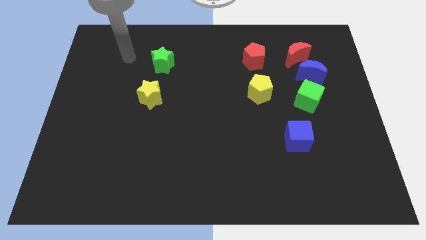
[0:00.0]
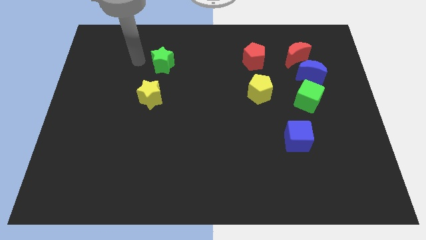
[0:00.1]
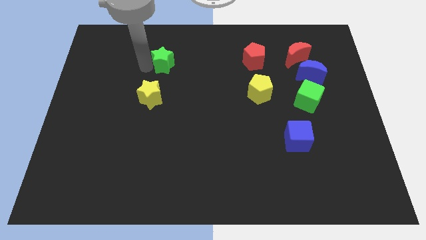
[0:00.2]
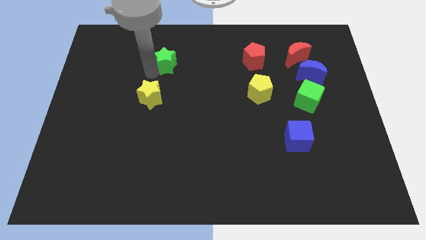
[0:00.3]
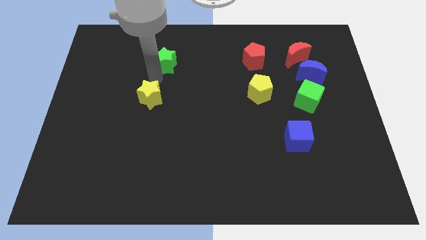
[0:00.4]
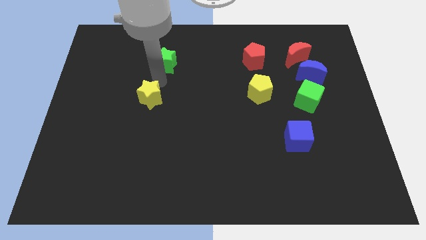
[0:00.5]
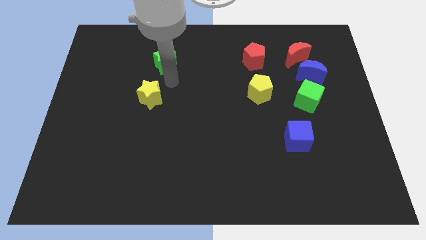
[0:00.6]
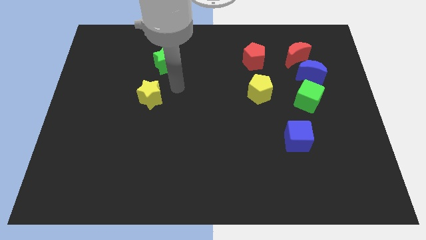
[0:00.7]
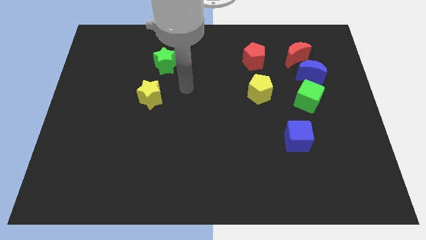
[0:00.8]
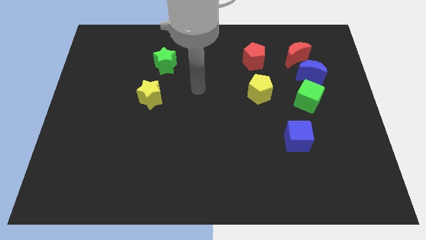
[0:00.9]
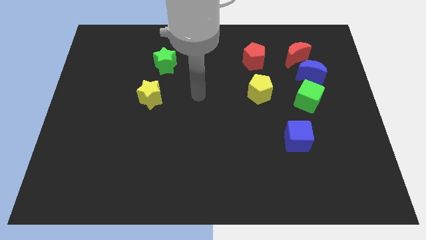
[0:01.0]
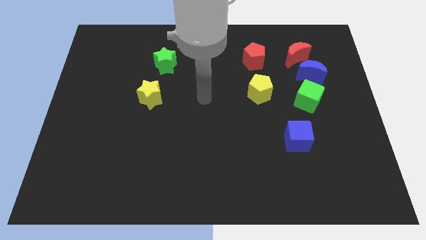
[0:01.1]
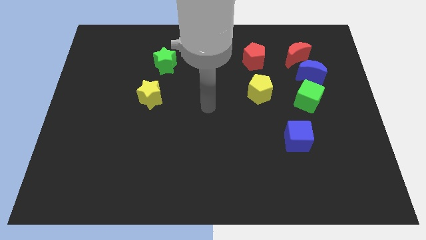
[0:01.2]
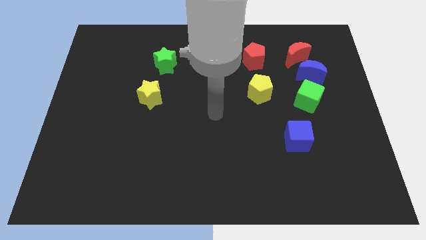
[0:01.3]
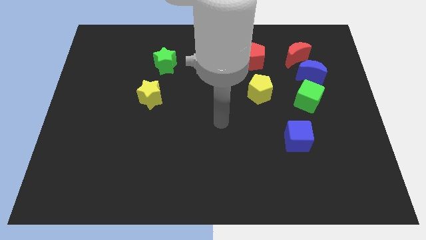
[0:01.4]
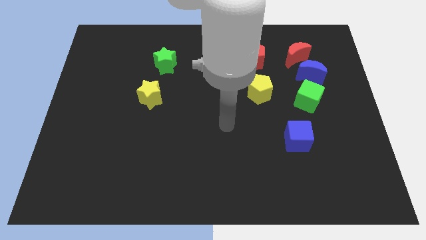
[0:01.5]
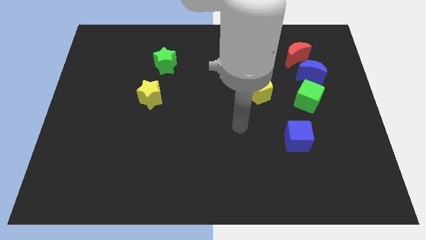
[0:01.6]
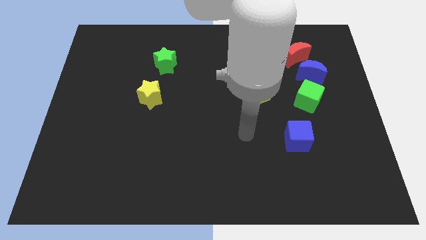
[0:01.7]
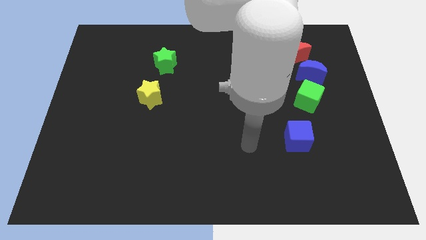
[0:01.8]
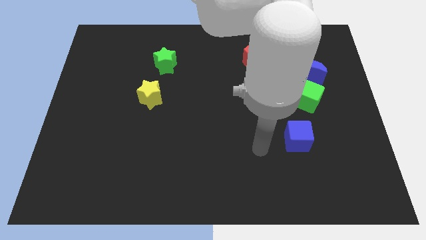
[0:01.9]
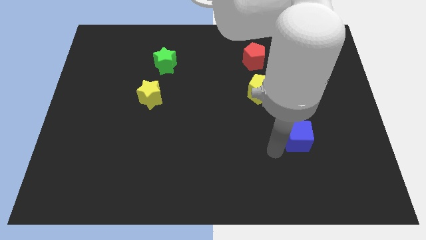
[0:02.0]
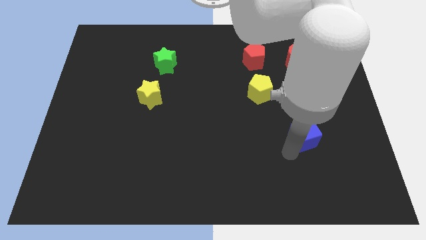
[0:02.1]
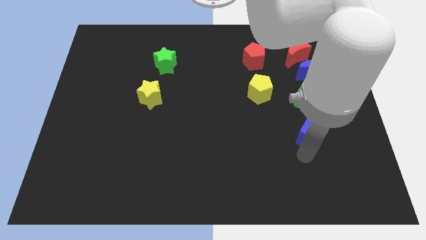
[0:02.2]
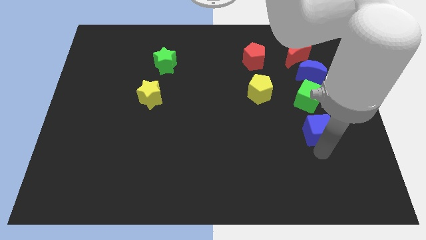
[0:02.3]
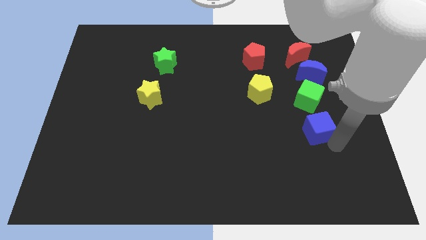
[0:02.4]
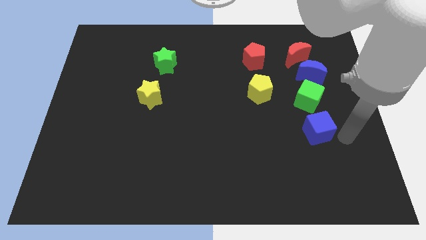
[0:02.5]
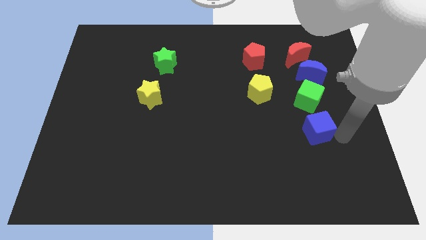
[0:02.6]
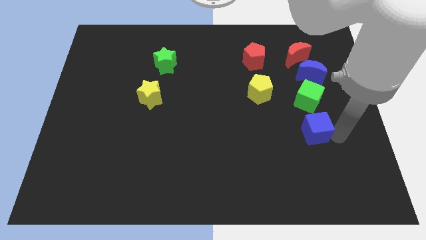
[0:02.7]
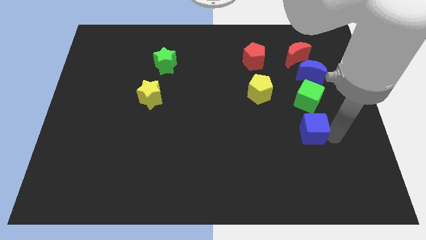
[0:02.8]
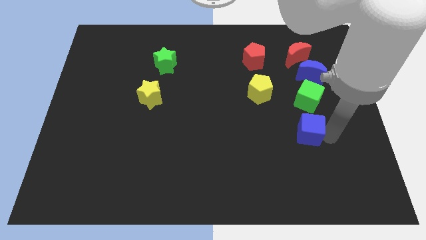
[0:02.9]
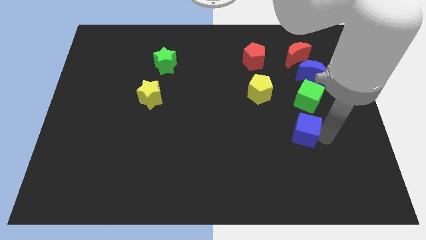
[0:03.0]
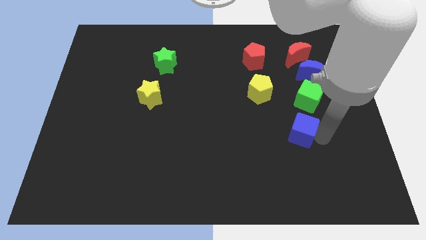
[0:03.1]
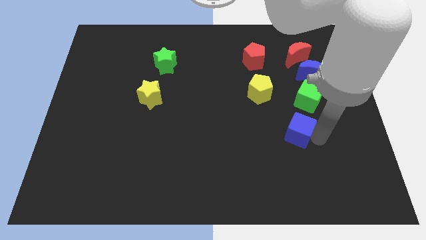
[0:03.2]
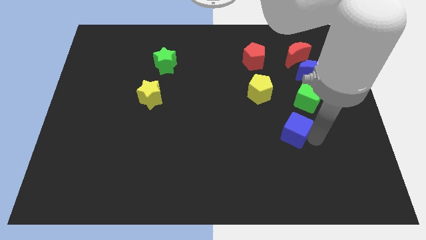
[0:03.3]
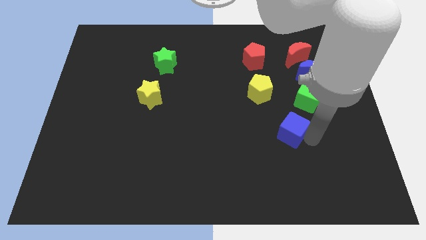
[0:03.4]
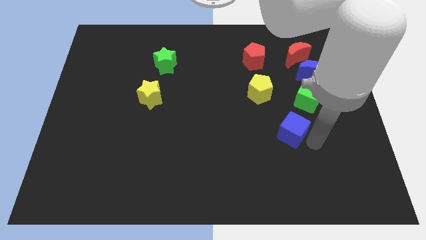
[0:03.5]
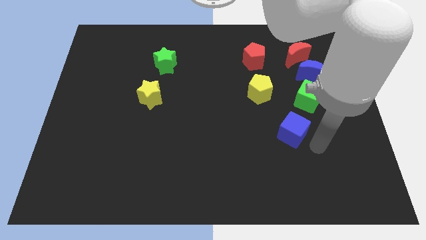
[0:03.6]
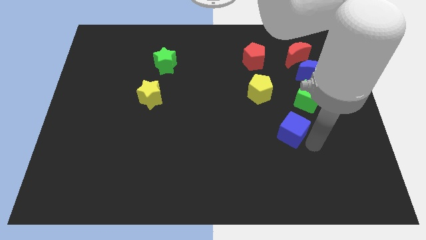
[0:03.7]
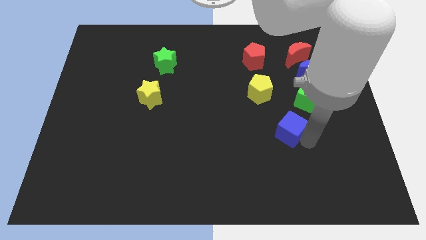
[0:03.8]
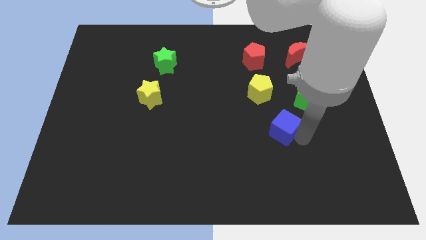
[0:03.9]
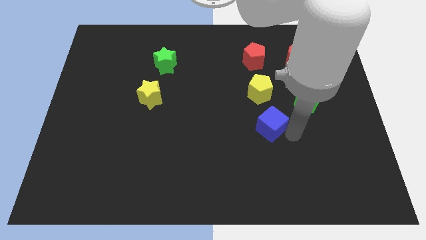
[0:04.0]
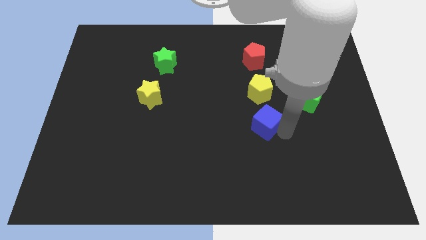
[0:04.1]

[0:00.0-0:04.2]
slightly slide the blue cube upwards and to the left diagonally

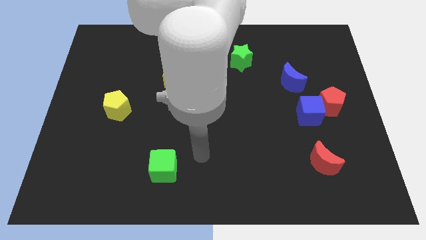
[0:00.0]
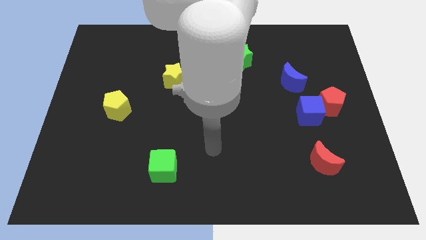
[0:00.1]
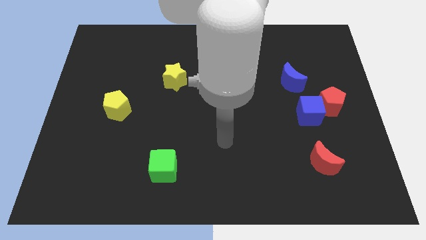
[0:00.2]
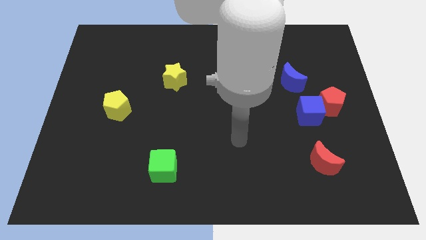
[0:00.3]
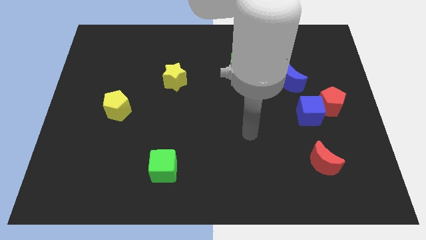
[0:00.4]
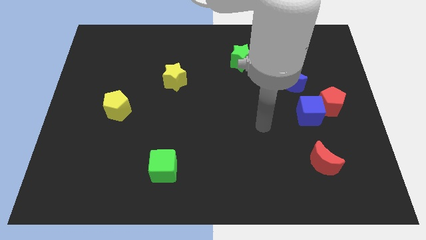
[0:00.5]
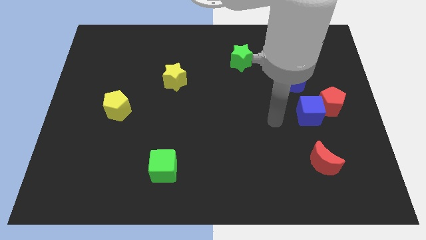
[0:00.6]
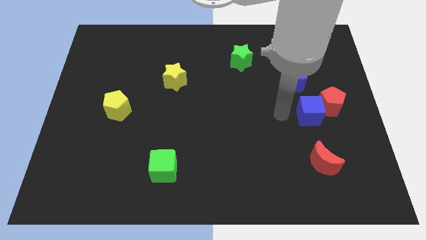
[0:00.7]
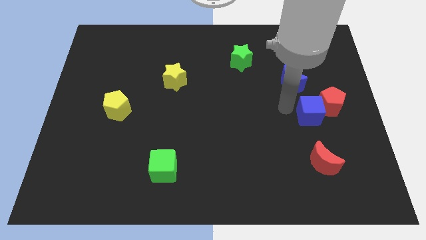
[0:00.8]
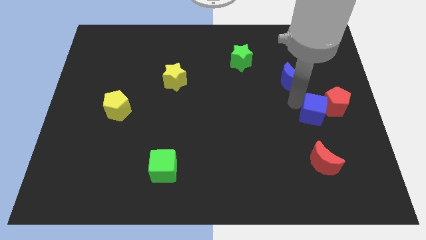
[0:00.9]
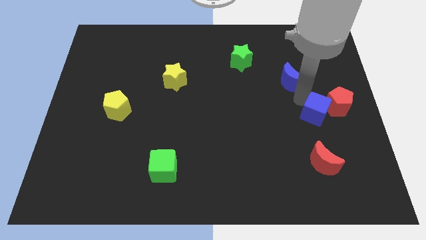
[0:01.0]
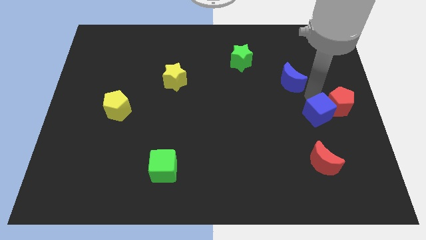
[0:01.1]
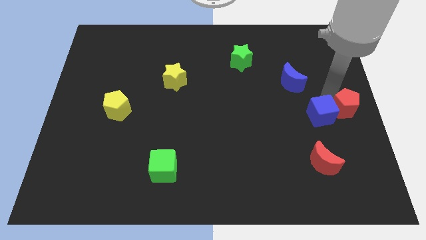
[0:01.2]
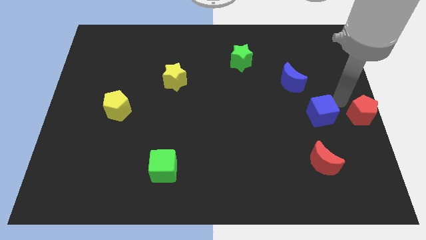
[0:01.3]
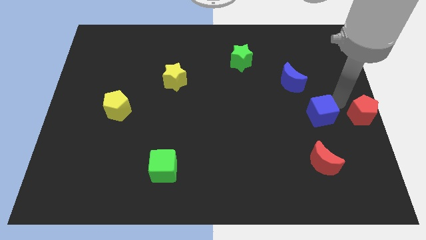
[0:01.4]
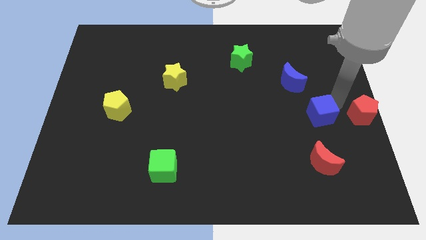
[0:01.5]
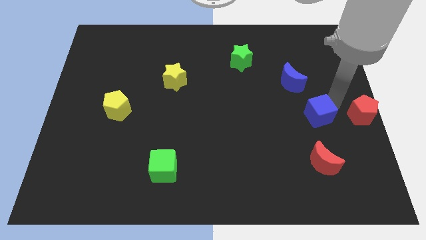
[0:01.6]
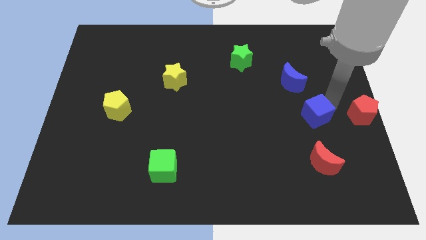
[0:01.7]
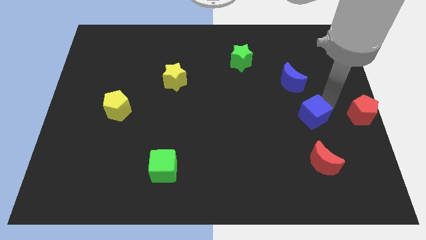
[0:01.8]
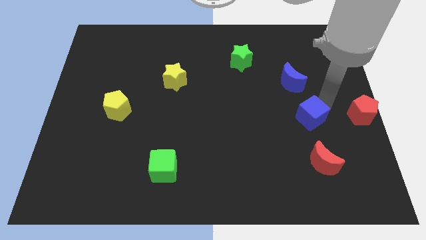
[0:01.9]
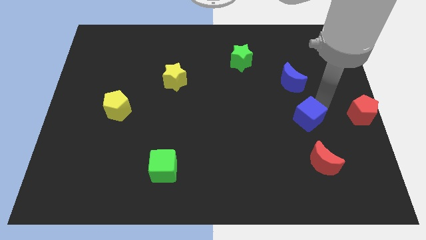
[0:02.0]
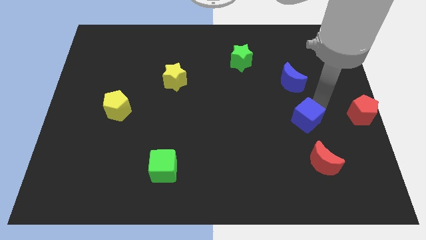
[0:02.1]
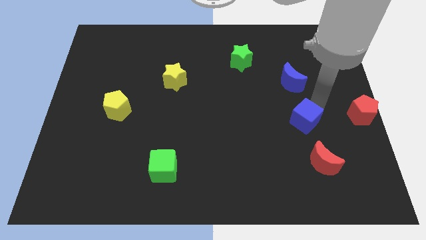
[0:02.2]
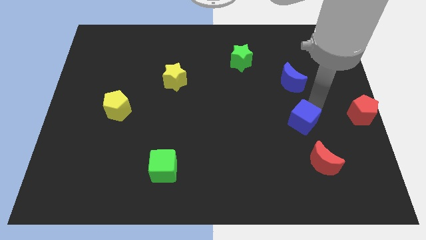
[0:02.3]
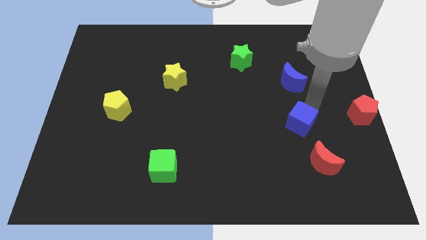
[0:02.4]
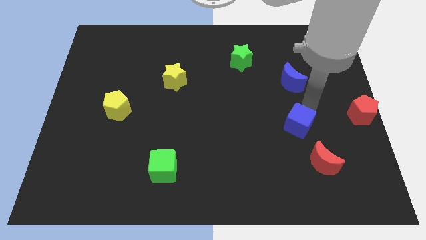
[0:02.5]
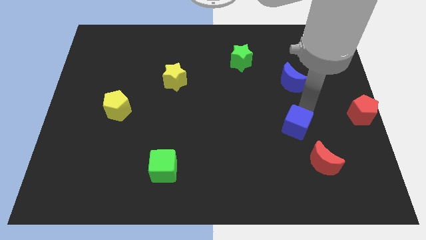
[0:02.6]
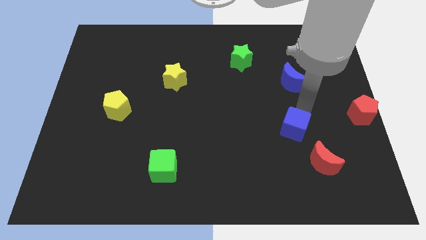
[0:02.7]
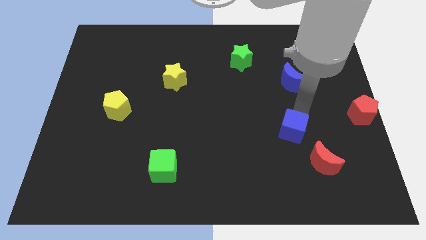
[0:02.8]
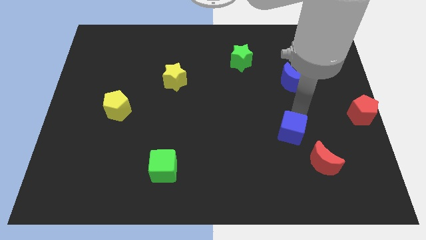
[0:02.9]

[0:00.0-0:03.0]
slightly move the blue cube downwards and to the left

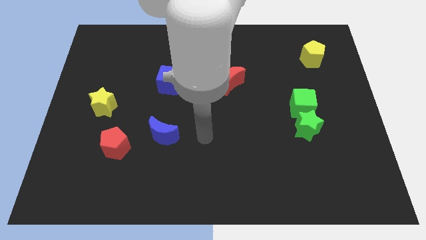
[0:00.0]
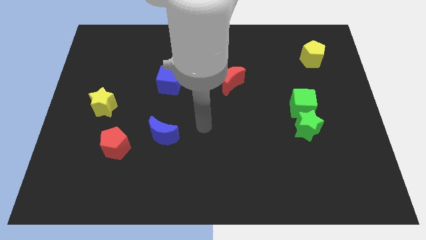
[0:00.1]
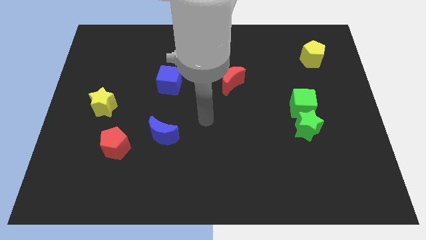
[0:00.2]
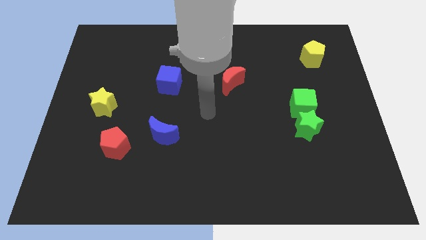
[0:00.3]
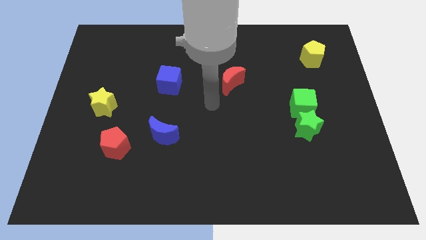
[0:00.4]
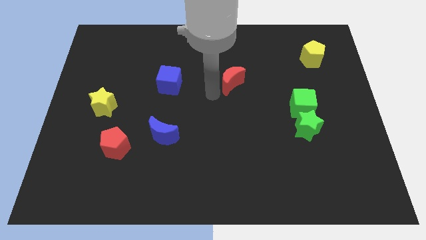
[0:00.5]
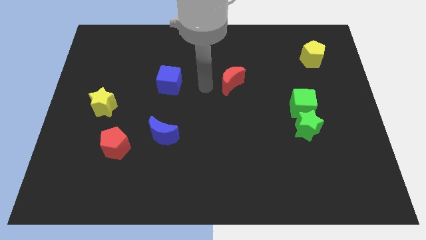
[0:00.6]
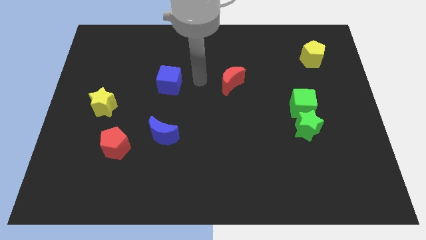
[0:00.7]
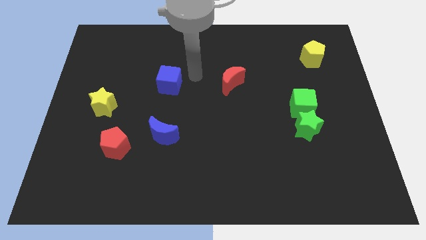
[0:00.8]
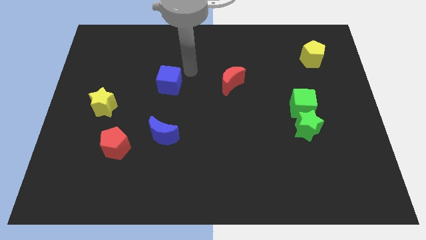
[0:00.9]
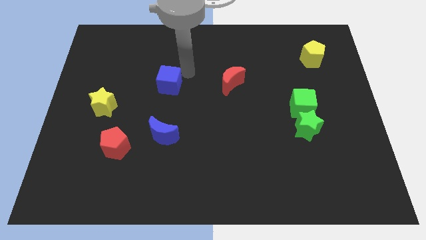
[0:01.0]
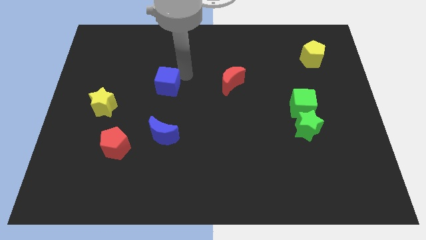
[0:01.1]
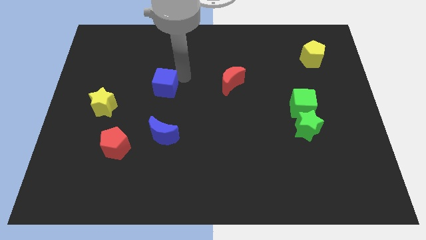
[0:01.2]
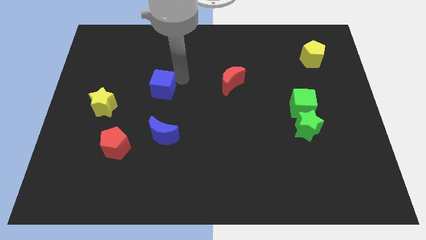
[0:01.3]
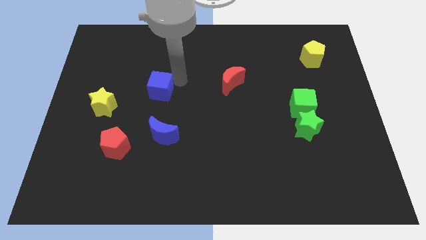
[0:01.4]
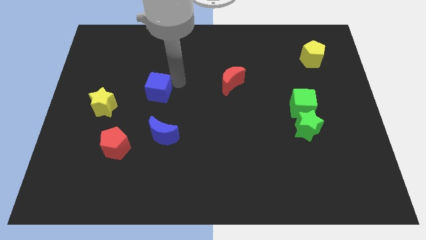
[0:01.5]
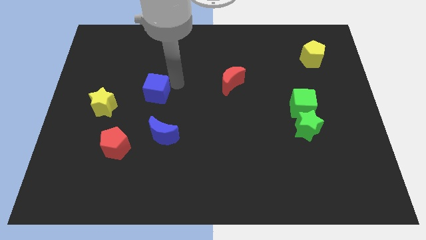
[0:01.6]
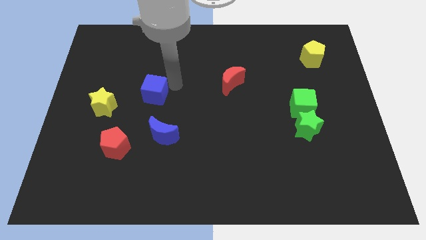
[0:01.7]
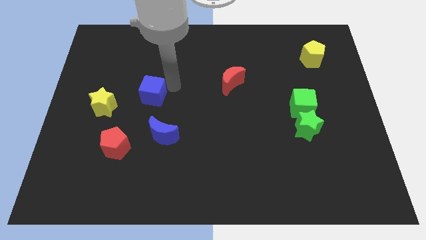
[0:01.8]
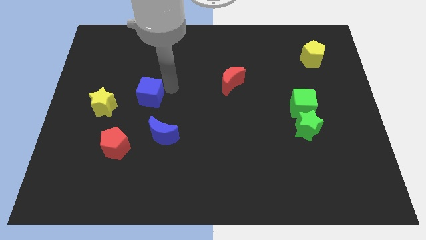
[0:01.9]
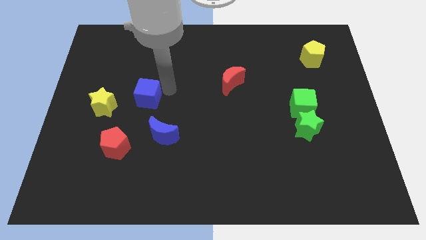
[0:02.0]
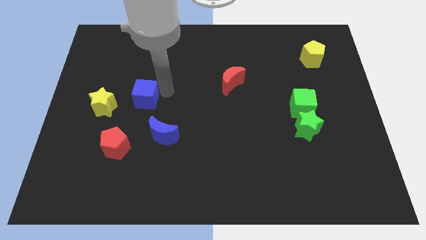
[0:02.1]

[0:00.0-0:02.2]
push the blue cube somewhat down and to the left
